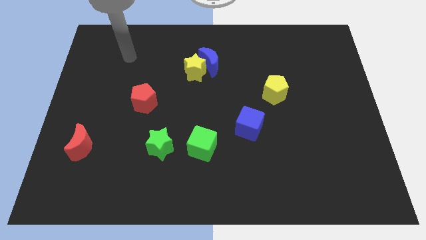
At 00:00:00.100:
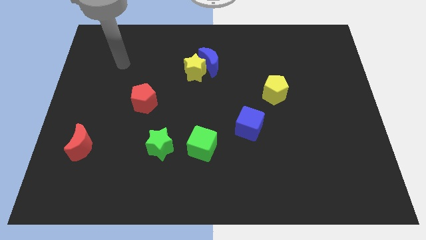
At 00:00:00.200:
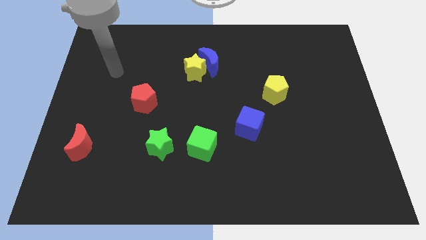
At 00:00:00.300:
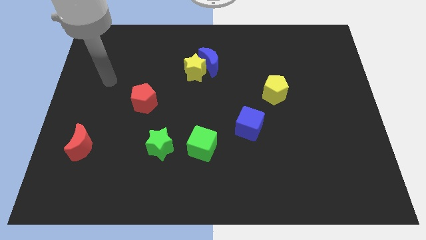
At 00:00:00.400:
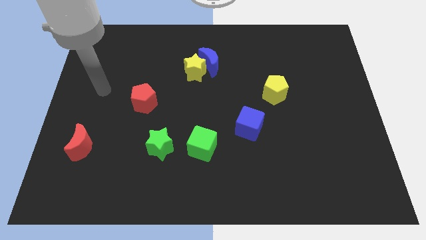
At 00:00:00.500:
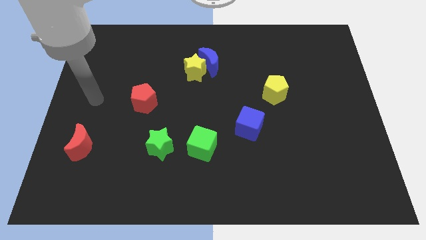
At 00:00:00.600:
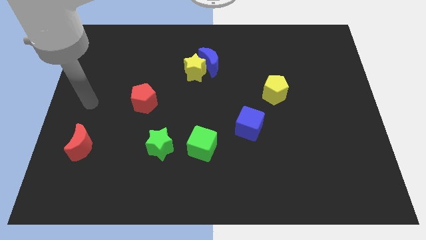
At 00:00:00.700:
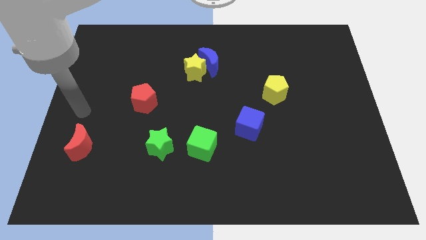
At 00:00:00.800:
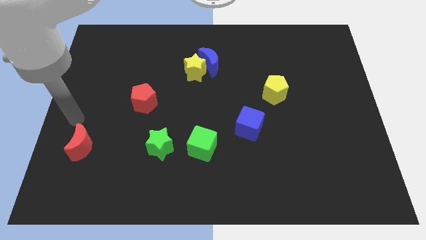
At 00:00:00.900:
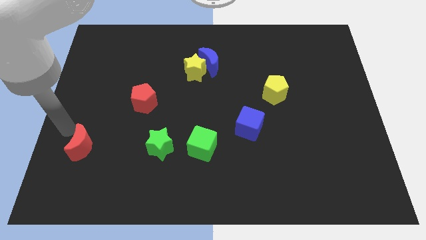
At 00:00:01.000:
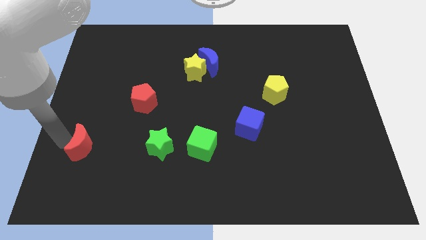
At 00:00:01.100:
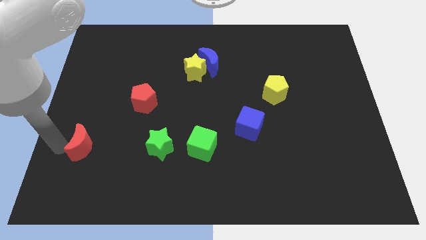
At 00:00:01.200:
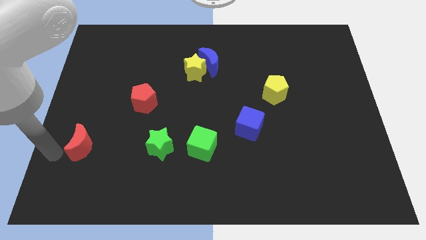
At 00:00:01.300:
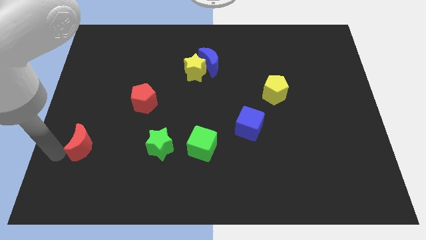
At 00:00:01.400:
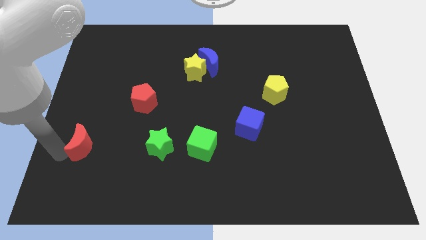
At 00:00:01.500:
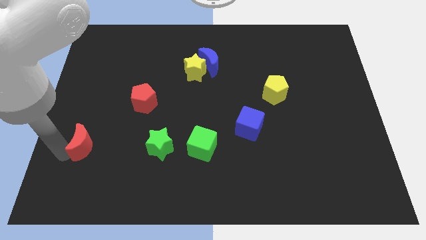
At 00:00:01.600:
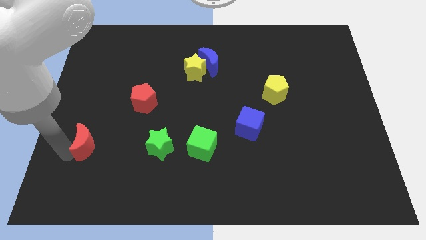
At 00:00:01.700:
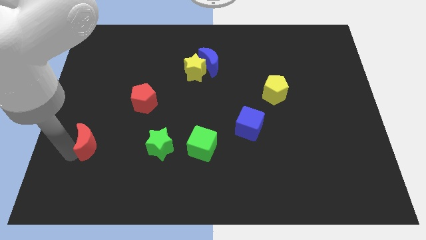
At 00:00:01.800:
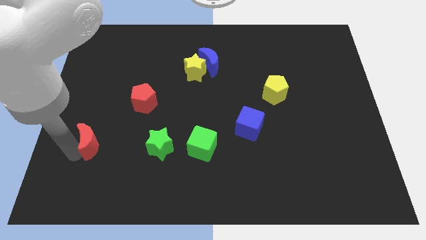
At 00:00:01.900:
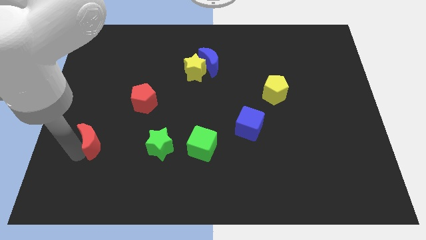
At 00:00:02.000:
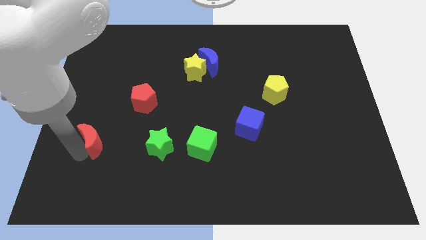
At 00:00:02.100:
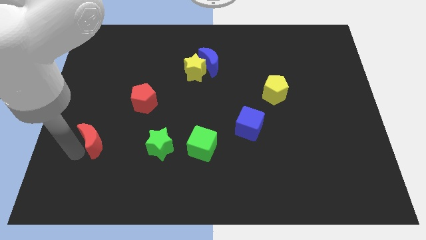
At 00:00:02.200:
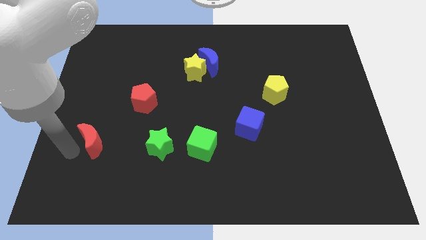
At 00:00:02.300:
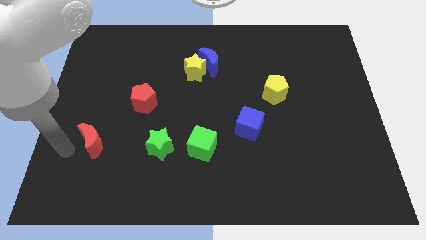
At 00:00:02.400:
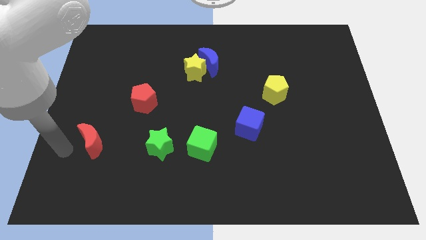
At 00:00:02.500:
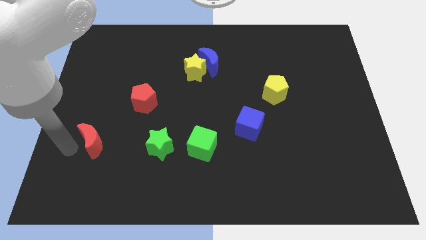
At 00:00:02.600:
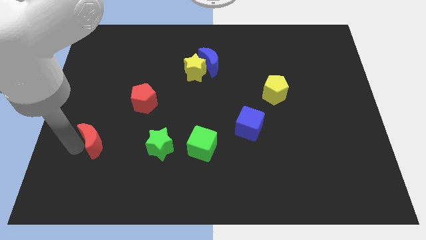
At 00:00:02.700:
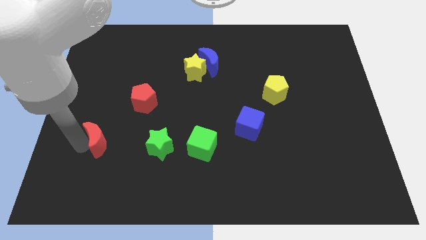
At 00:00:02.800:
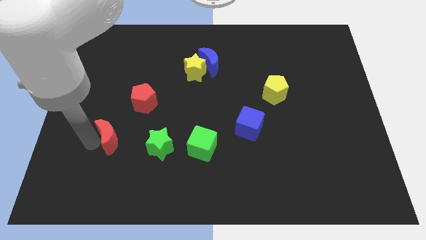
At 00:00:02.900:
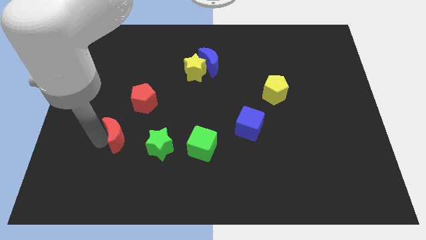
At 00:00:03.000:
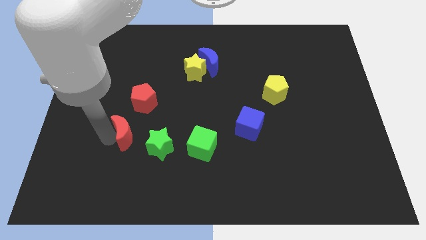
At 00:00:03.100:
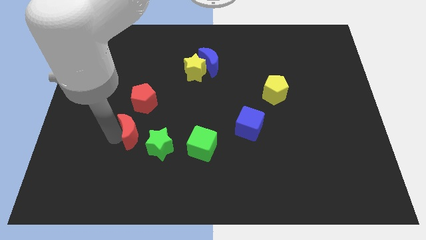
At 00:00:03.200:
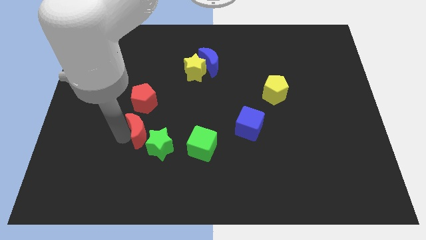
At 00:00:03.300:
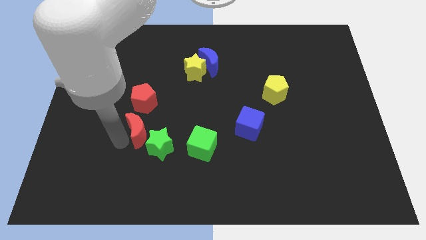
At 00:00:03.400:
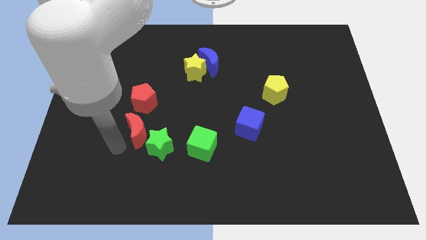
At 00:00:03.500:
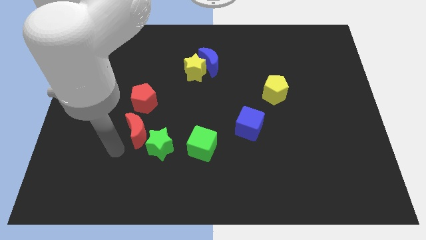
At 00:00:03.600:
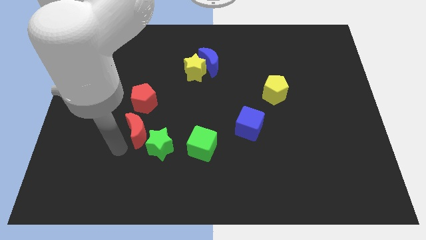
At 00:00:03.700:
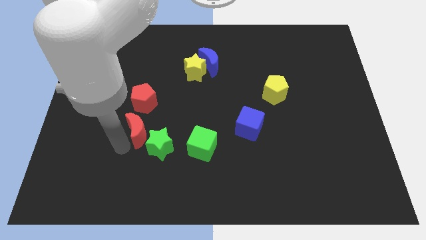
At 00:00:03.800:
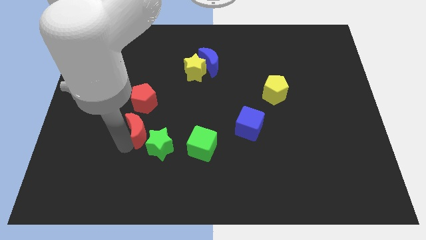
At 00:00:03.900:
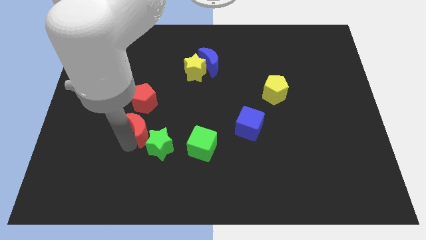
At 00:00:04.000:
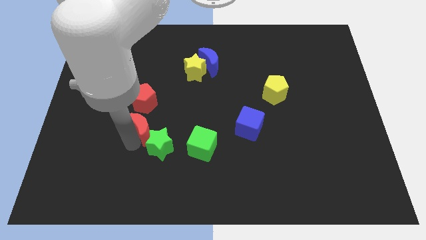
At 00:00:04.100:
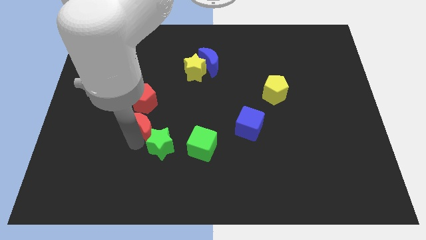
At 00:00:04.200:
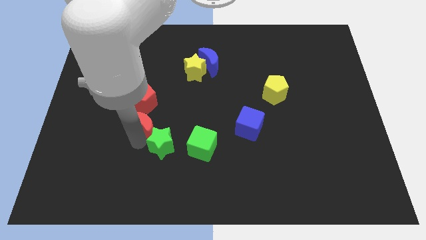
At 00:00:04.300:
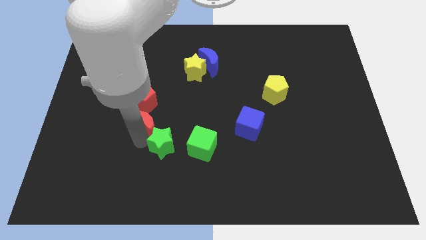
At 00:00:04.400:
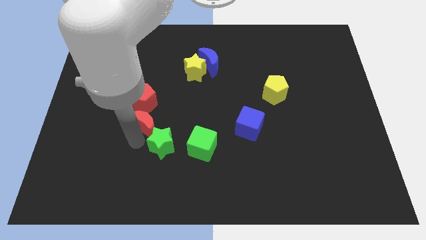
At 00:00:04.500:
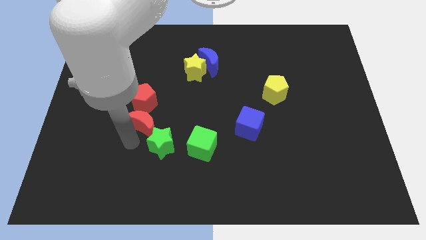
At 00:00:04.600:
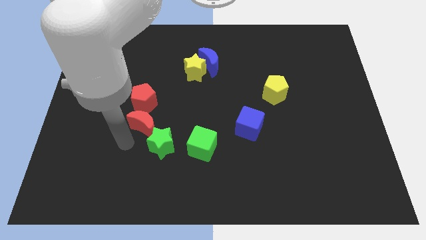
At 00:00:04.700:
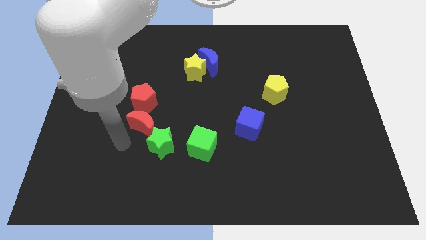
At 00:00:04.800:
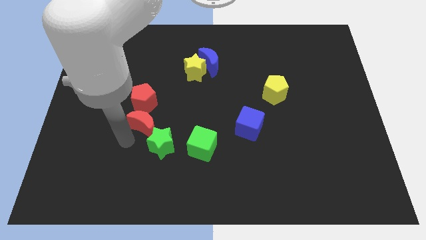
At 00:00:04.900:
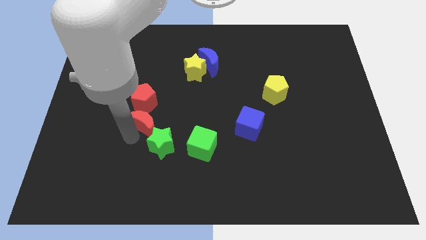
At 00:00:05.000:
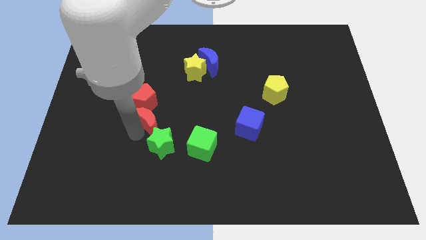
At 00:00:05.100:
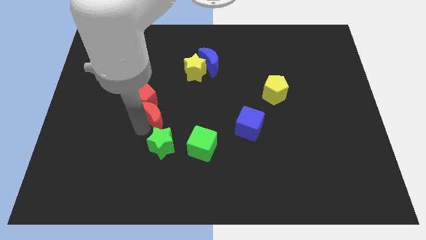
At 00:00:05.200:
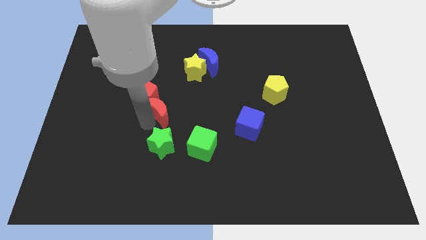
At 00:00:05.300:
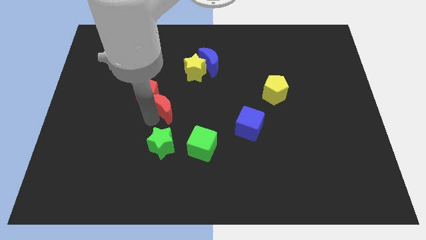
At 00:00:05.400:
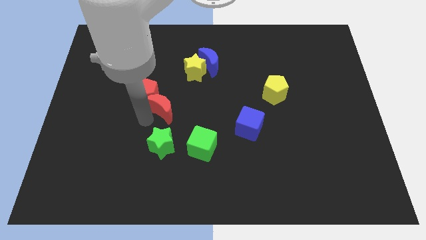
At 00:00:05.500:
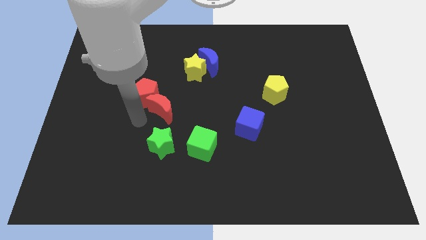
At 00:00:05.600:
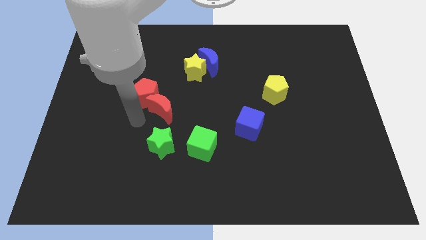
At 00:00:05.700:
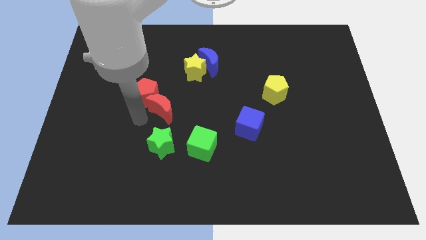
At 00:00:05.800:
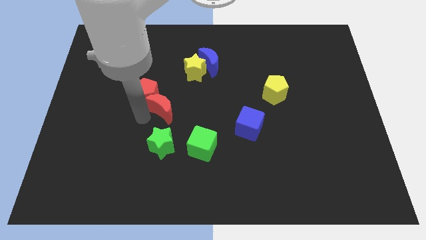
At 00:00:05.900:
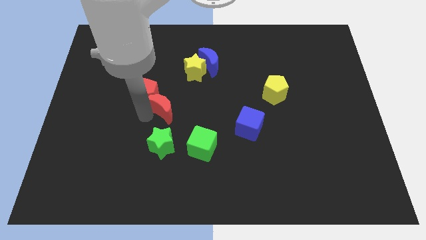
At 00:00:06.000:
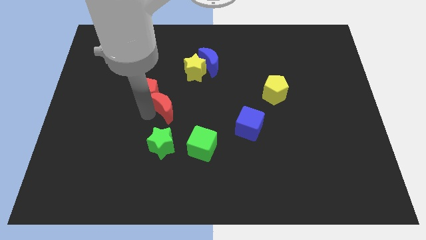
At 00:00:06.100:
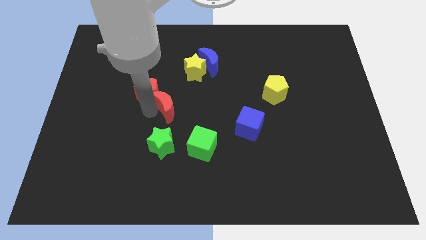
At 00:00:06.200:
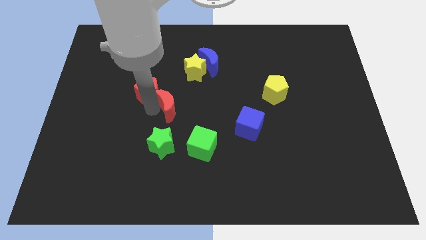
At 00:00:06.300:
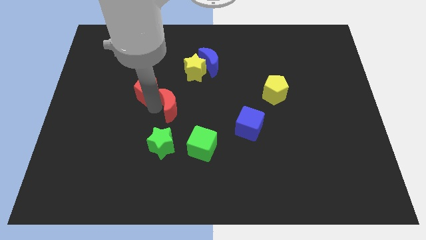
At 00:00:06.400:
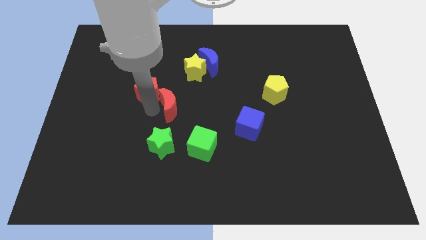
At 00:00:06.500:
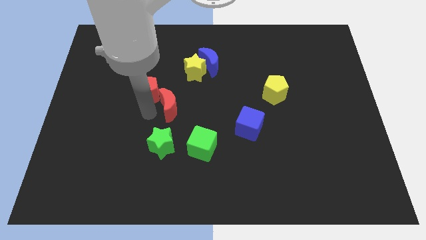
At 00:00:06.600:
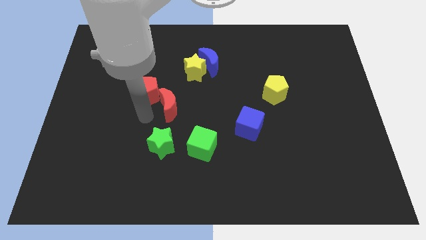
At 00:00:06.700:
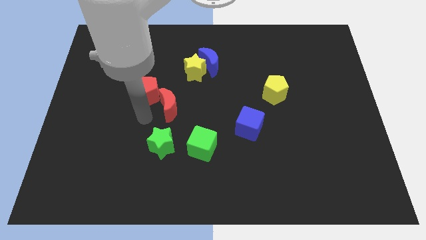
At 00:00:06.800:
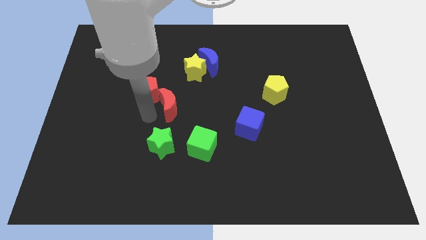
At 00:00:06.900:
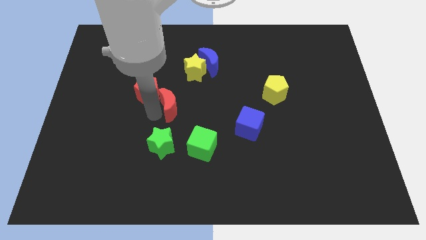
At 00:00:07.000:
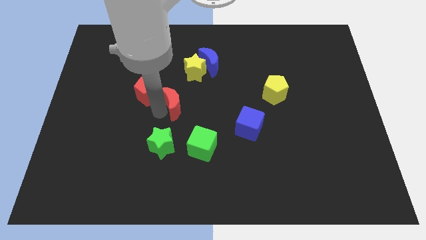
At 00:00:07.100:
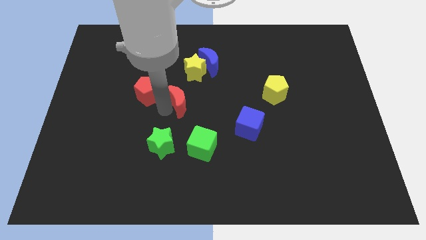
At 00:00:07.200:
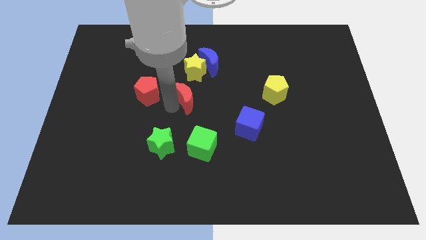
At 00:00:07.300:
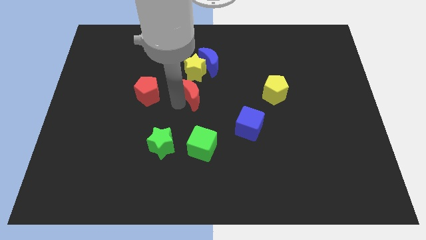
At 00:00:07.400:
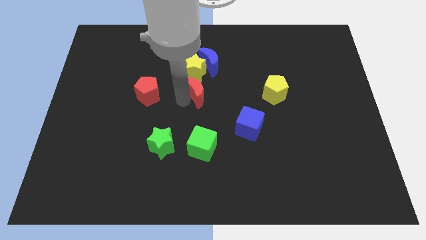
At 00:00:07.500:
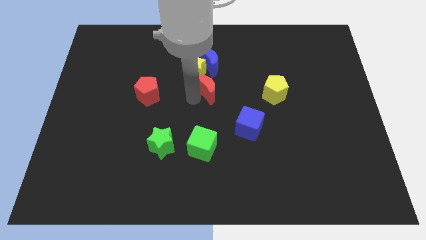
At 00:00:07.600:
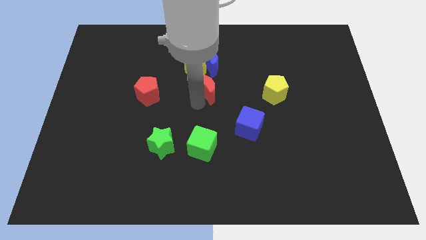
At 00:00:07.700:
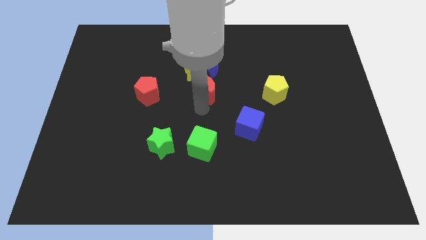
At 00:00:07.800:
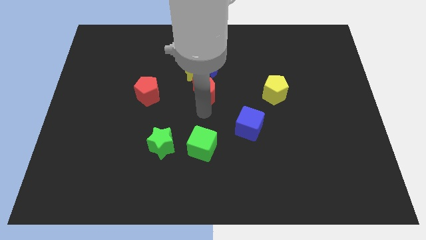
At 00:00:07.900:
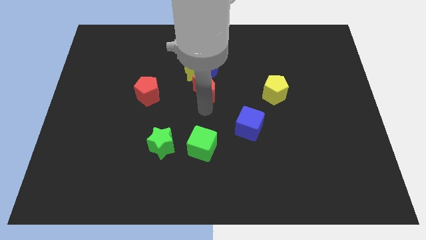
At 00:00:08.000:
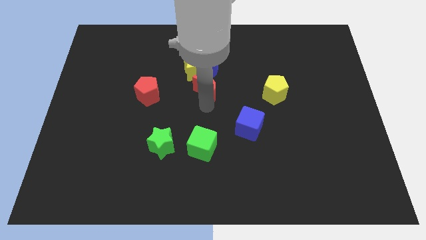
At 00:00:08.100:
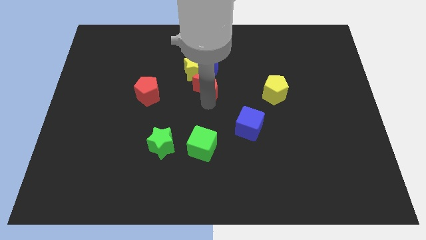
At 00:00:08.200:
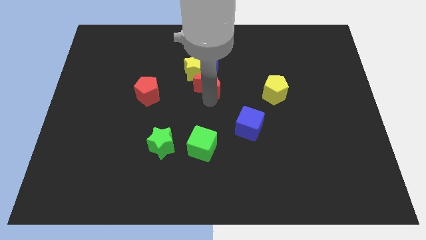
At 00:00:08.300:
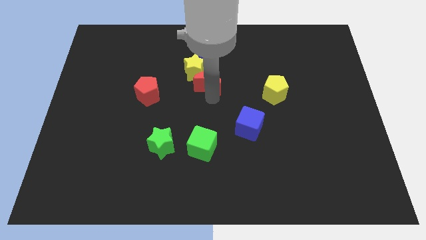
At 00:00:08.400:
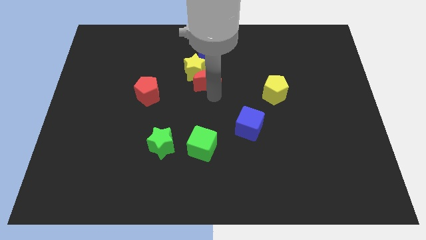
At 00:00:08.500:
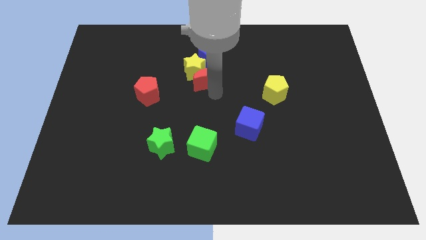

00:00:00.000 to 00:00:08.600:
slide the red moon to the blue moon
